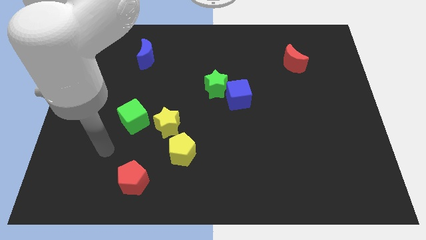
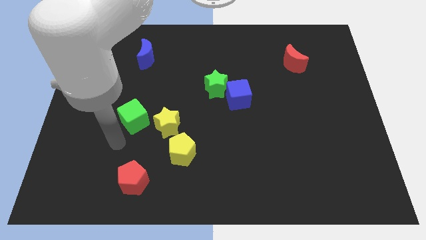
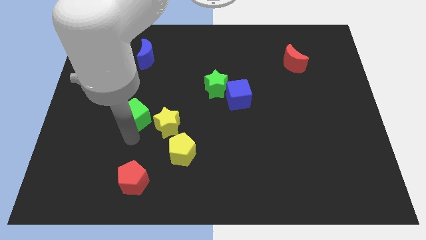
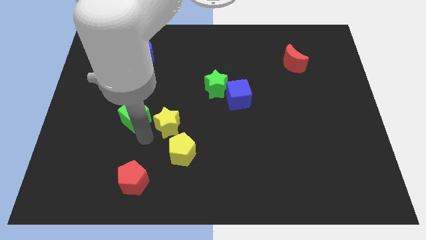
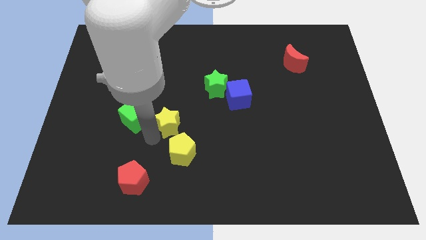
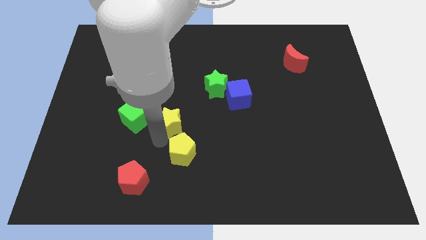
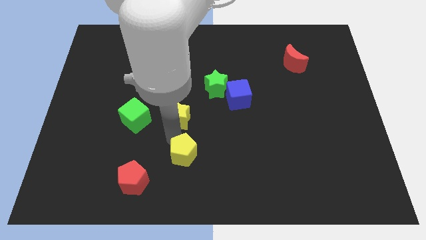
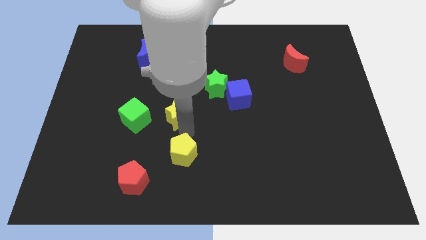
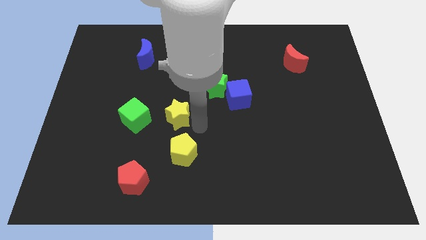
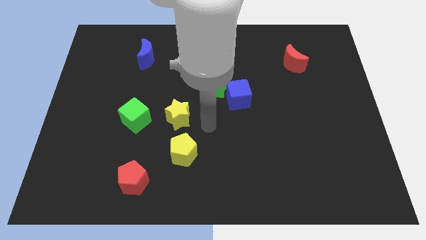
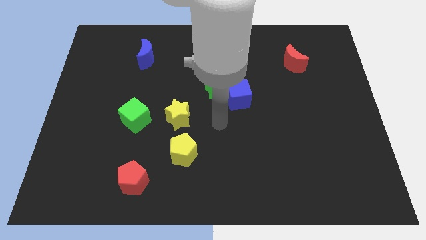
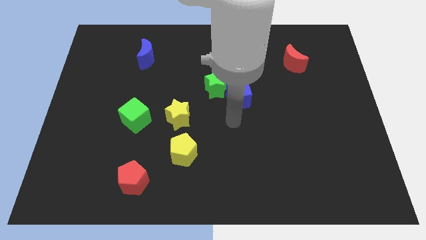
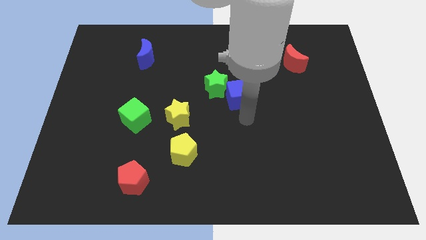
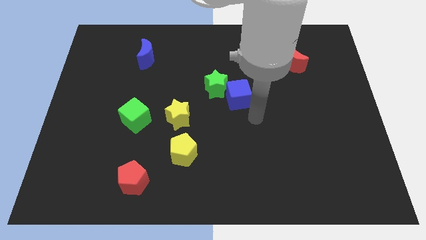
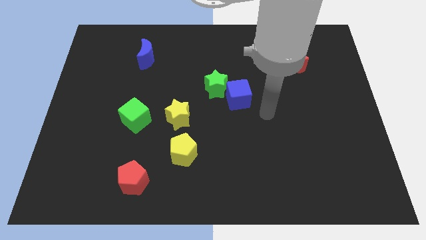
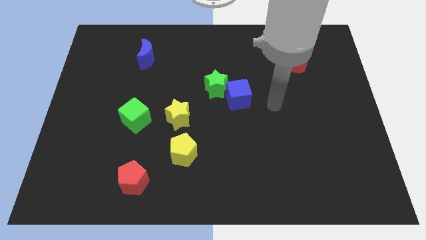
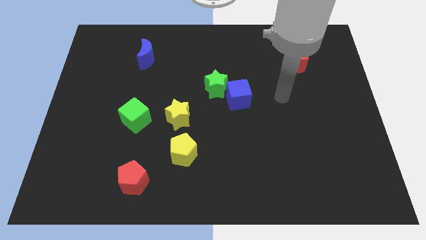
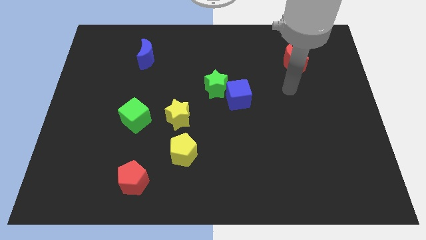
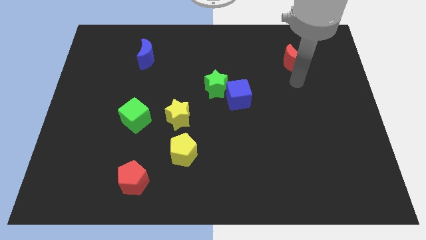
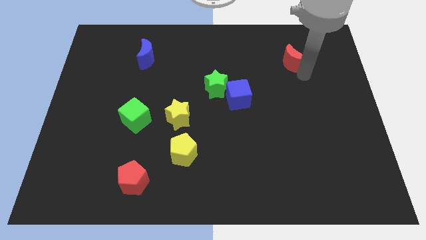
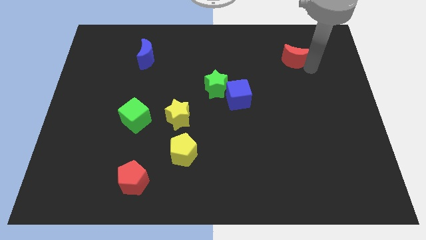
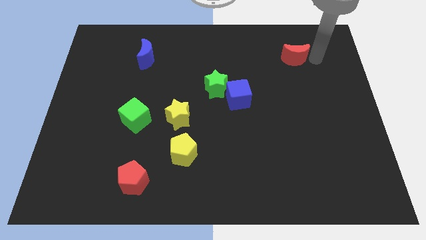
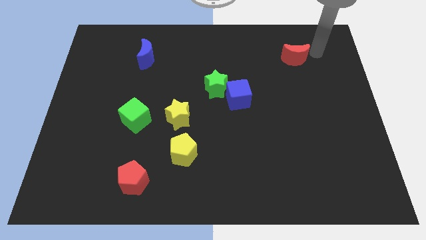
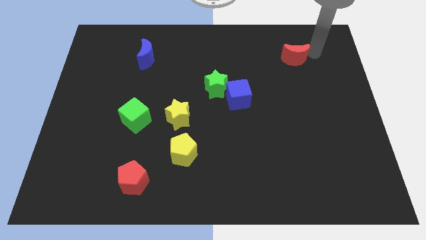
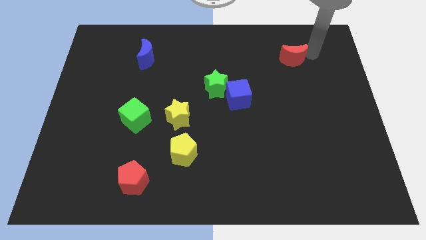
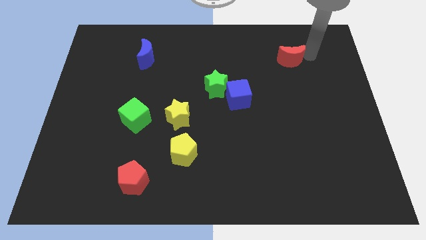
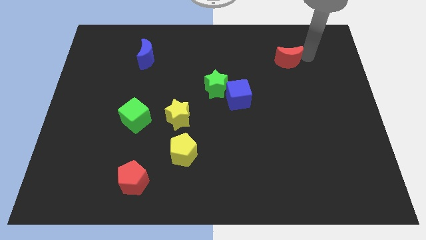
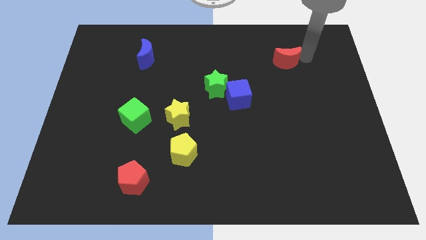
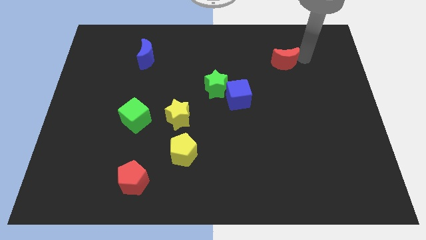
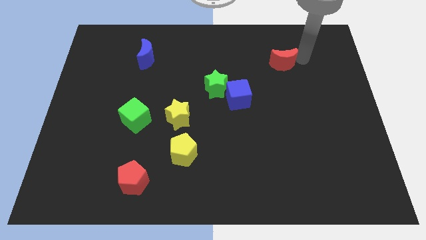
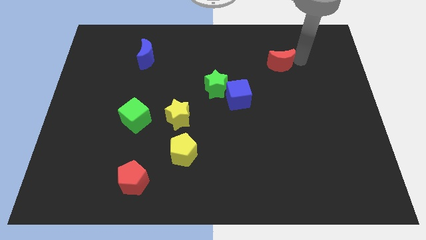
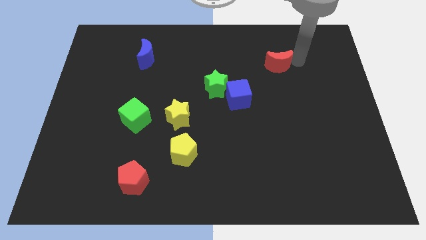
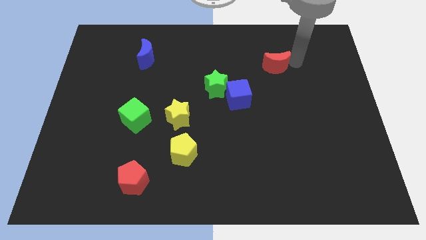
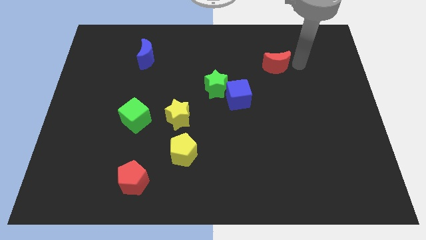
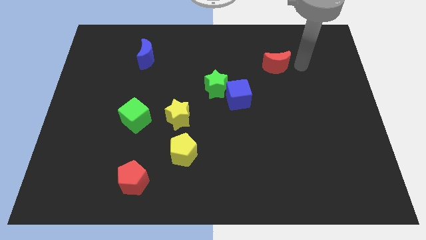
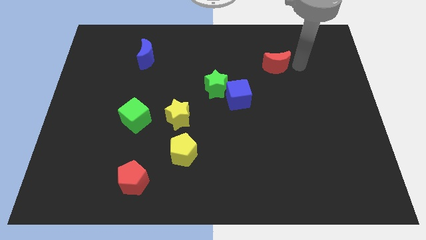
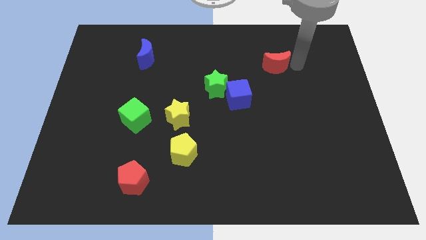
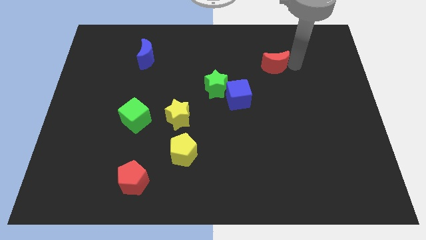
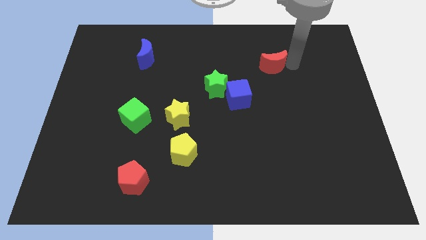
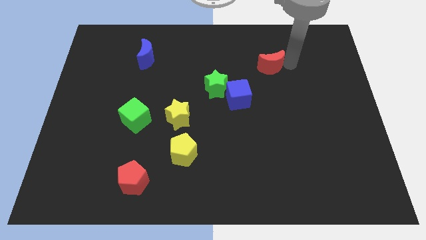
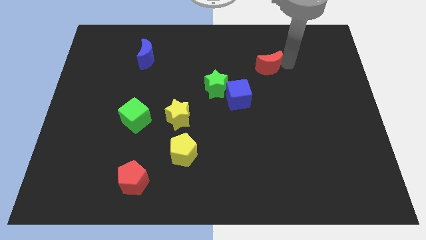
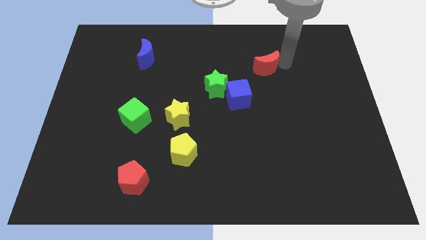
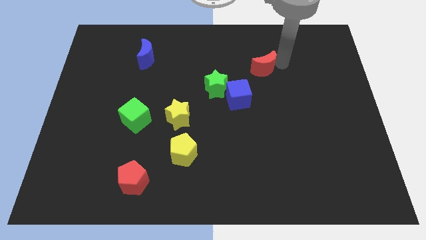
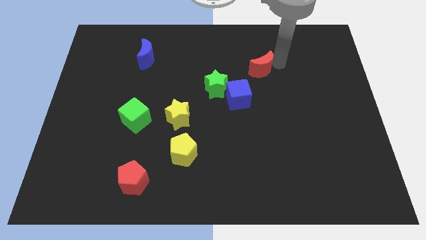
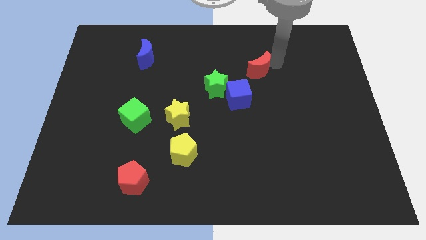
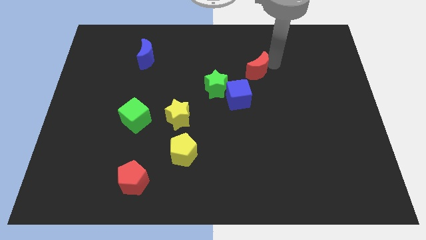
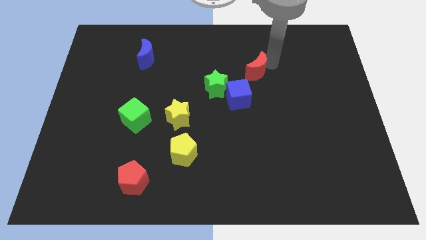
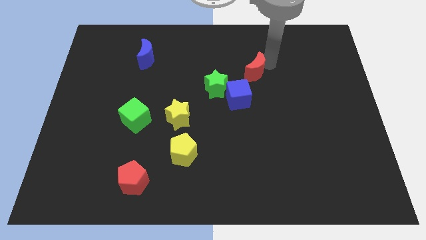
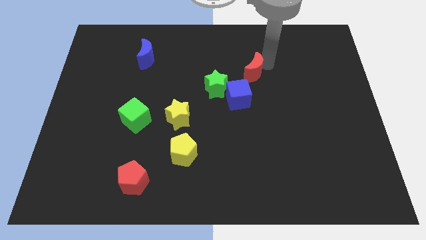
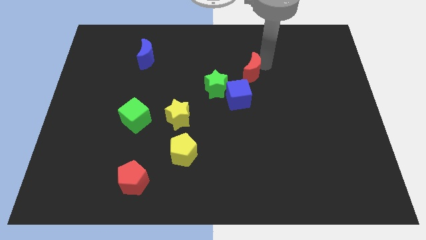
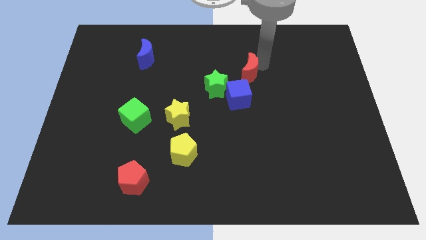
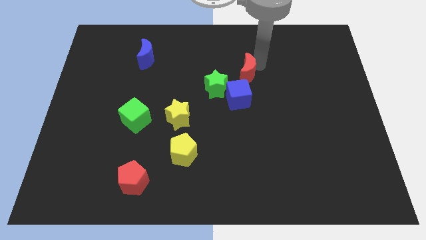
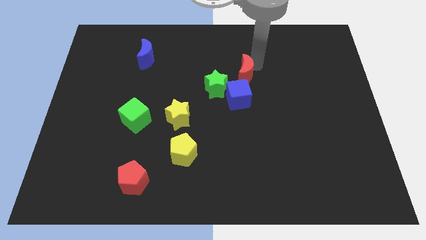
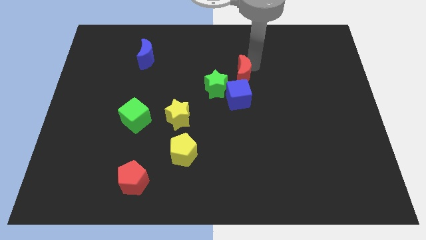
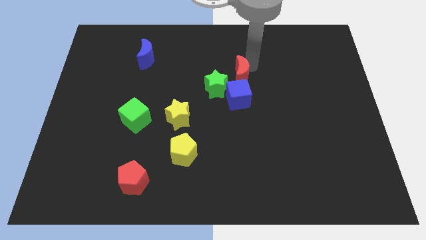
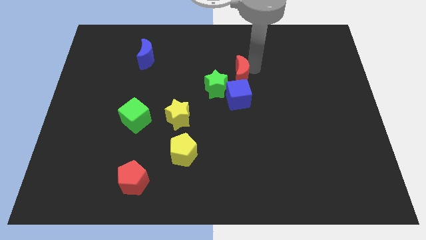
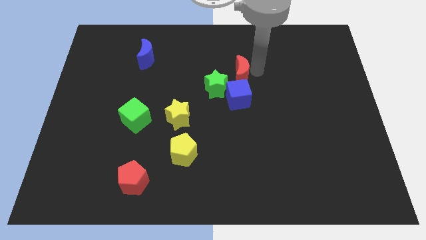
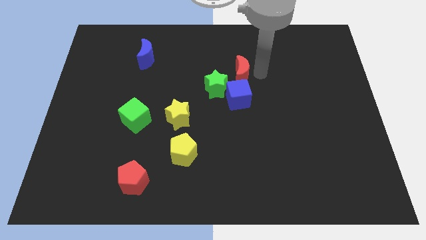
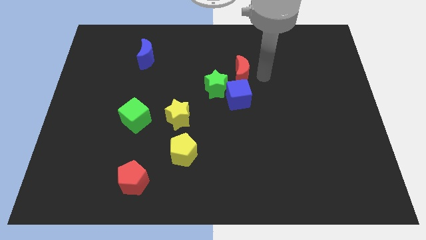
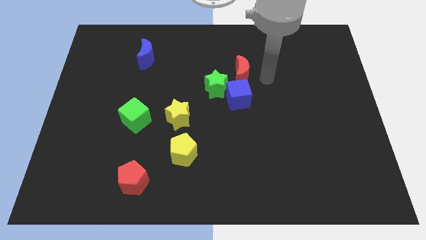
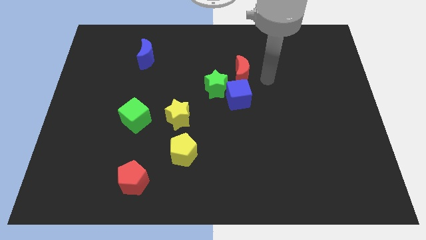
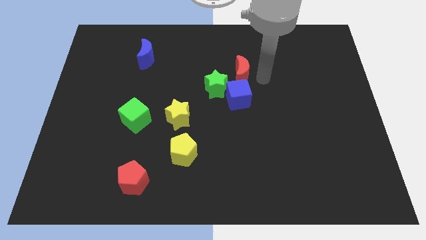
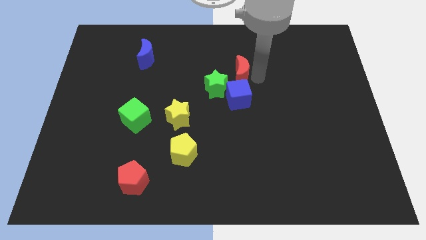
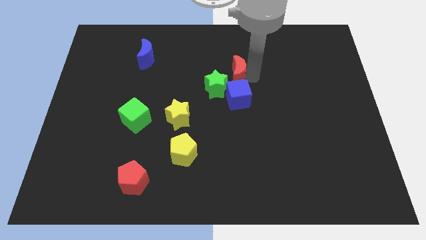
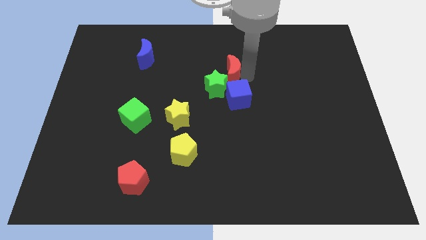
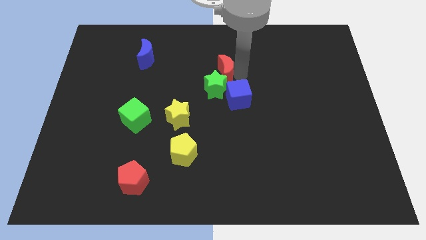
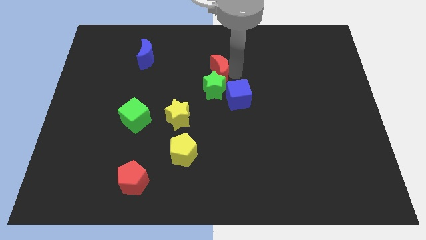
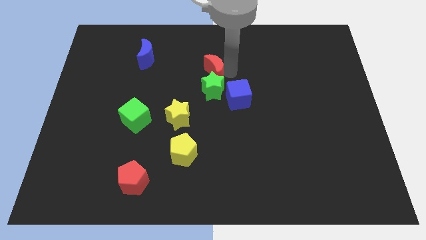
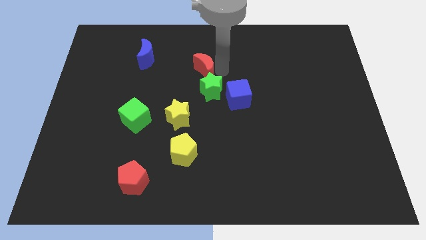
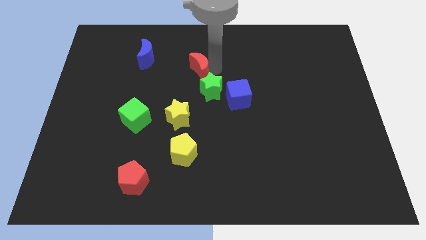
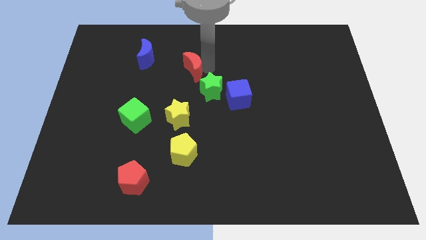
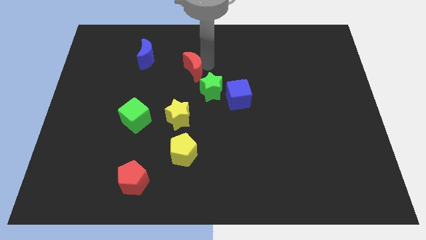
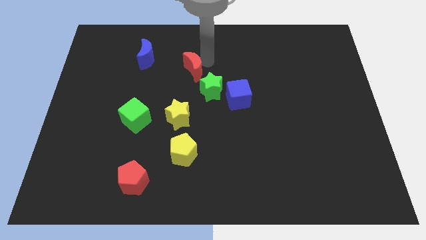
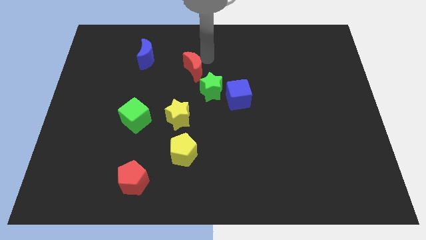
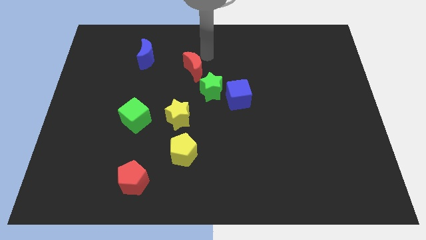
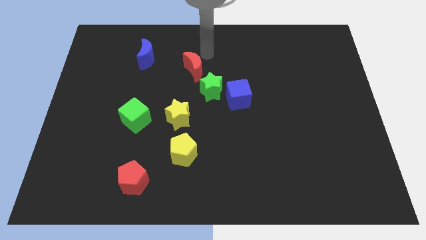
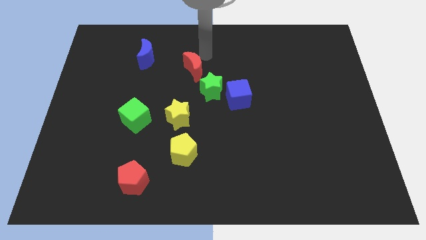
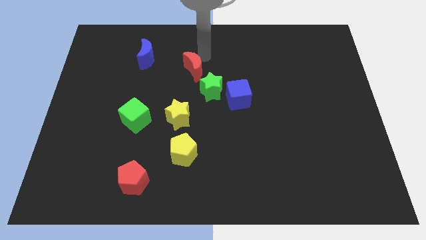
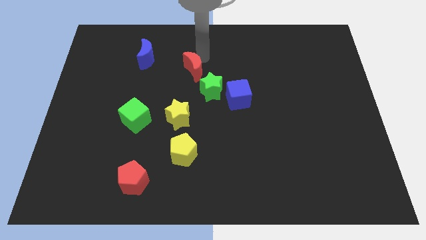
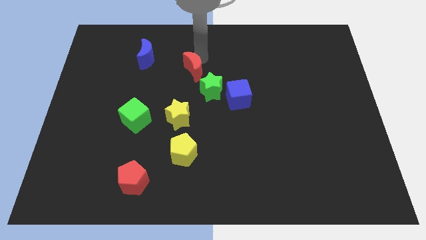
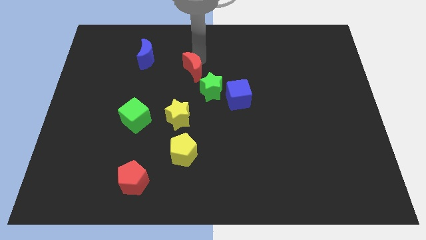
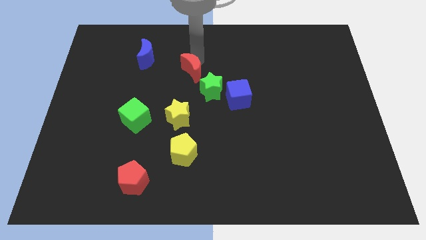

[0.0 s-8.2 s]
push the red moon above the yellow star
